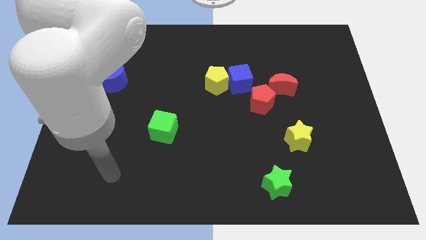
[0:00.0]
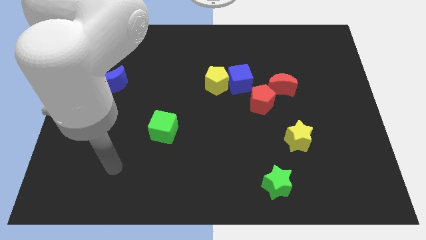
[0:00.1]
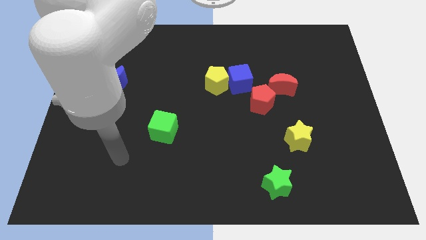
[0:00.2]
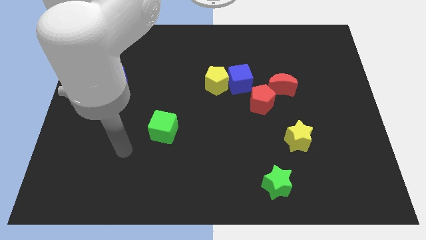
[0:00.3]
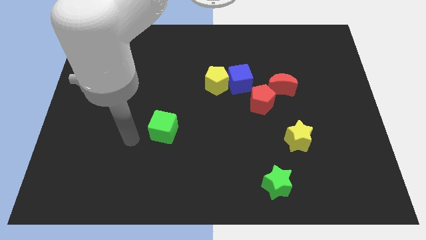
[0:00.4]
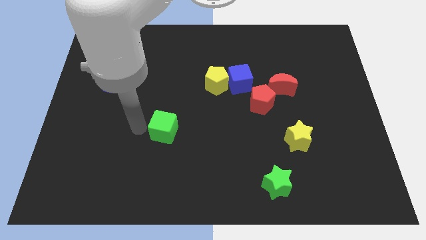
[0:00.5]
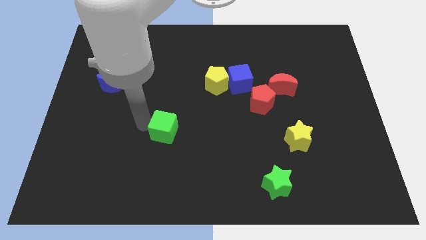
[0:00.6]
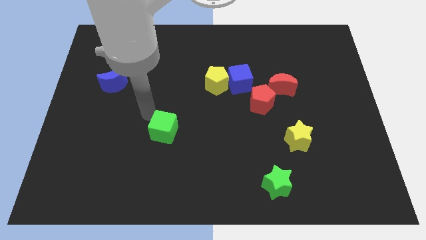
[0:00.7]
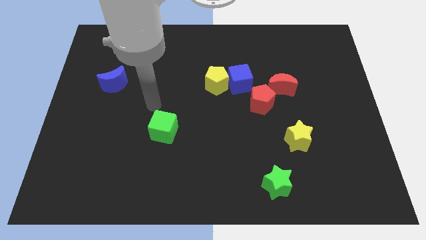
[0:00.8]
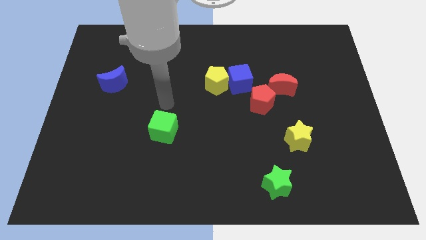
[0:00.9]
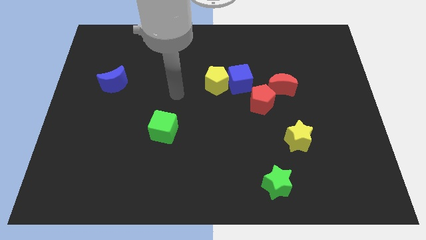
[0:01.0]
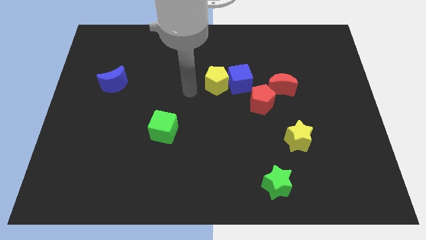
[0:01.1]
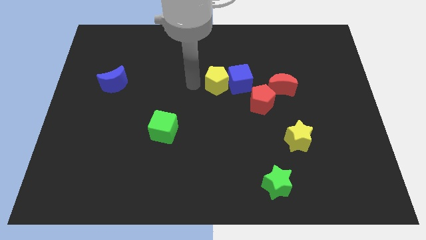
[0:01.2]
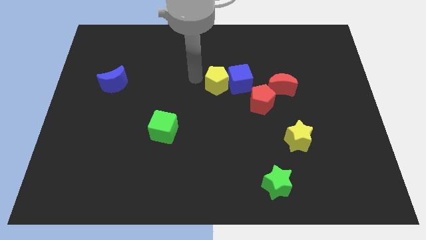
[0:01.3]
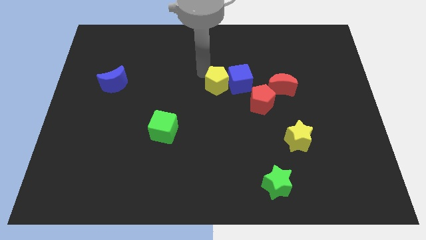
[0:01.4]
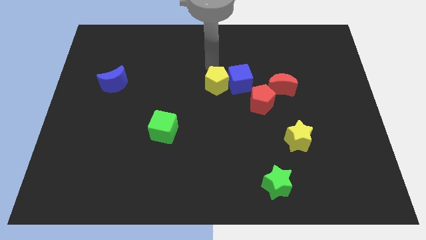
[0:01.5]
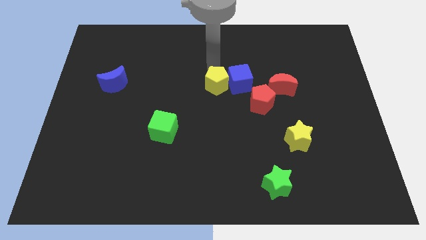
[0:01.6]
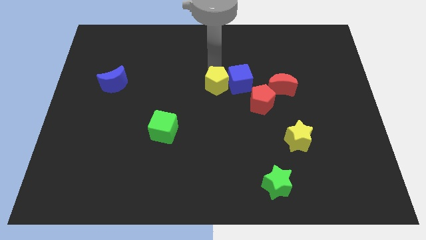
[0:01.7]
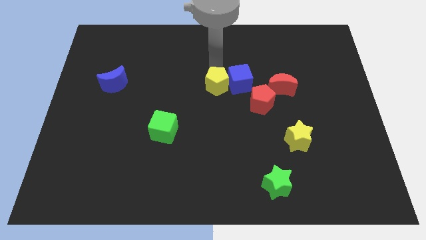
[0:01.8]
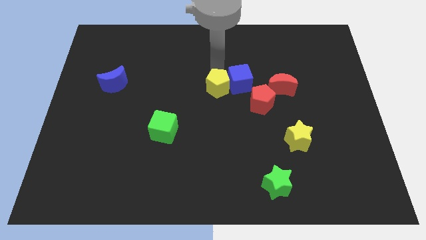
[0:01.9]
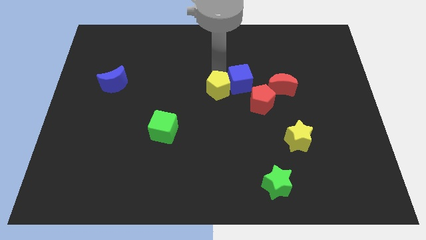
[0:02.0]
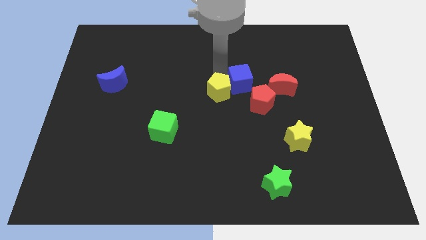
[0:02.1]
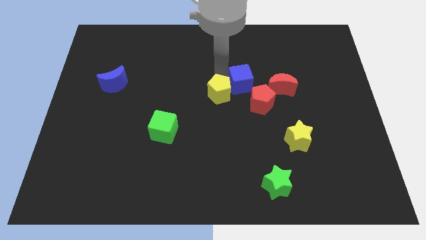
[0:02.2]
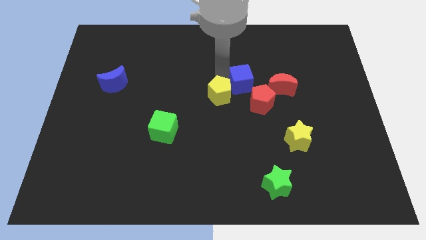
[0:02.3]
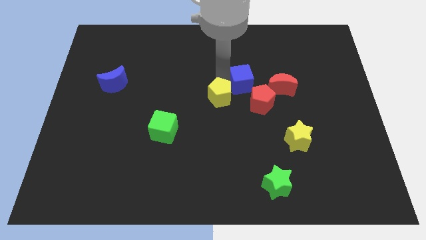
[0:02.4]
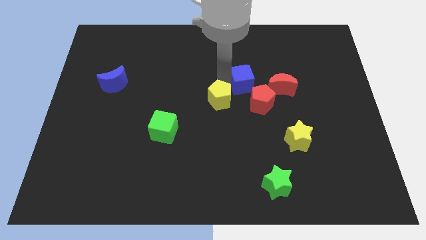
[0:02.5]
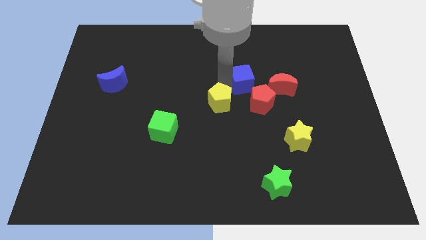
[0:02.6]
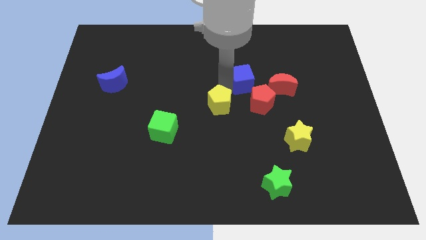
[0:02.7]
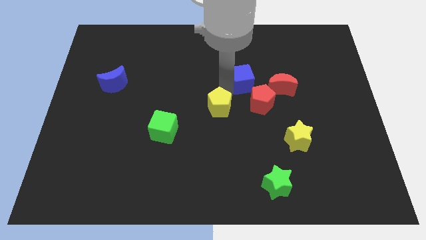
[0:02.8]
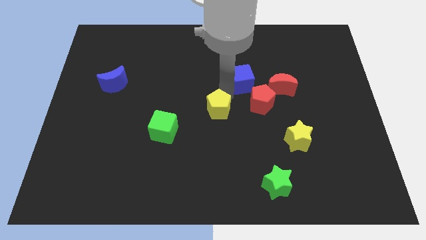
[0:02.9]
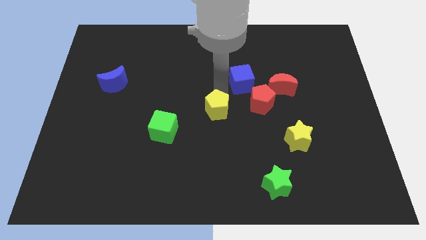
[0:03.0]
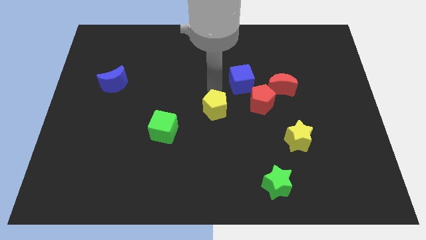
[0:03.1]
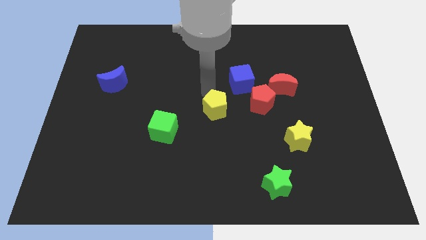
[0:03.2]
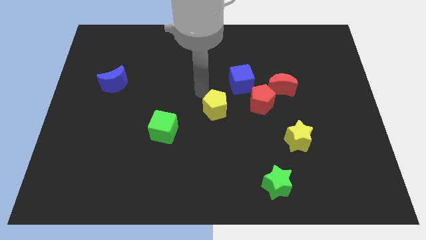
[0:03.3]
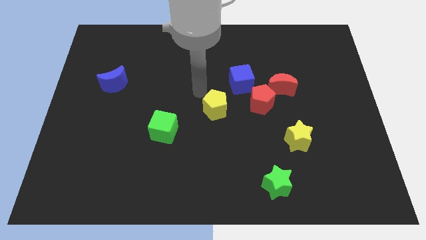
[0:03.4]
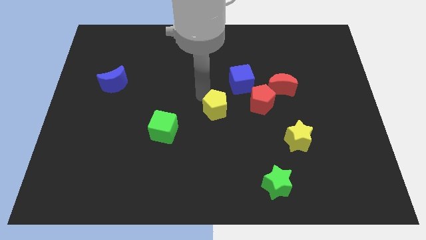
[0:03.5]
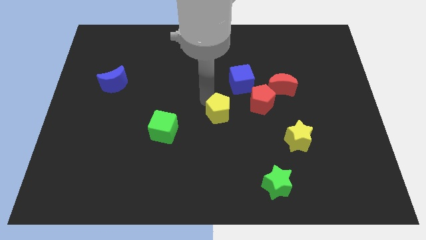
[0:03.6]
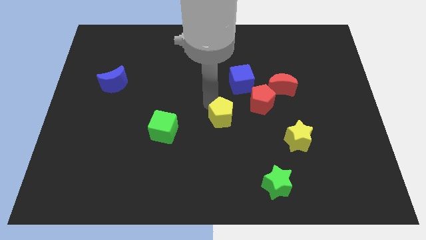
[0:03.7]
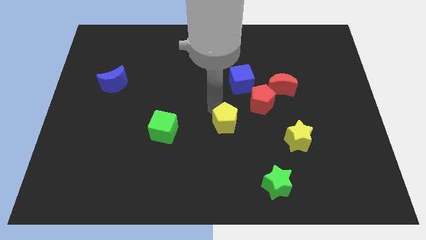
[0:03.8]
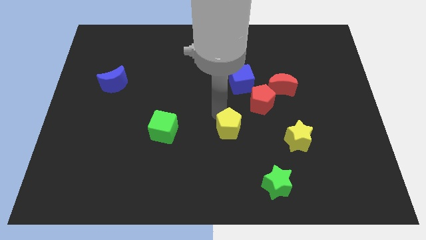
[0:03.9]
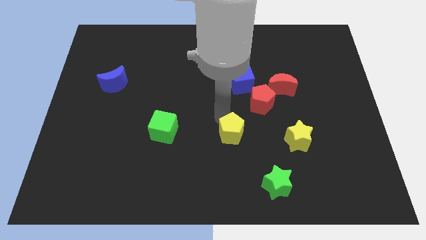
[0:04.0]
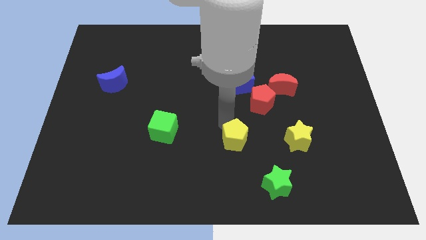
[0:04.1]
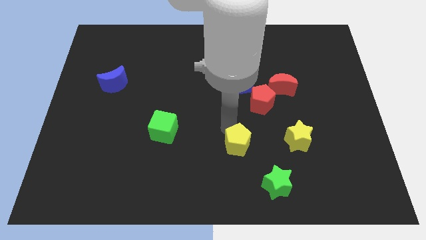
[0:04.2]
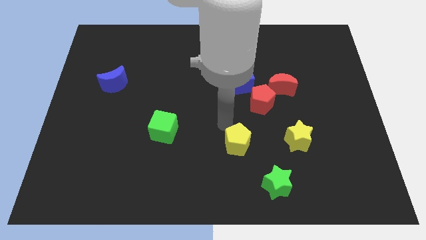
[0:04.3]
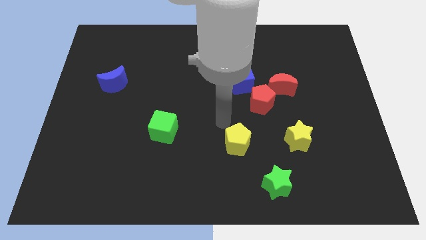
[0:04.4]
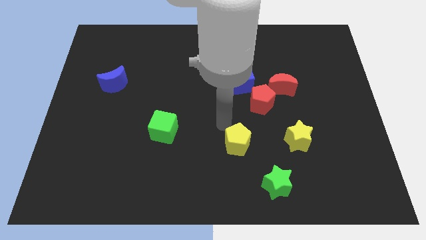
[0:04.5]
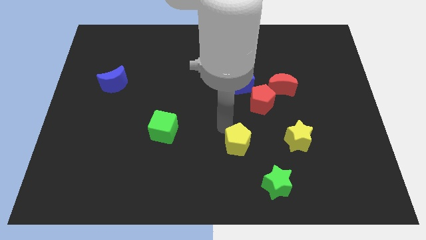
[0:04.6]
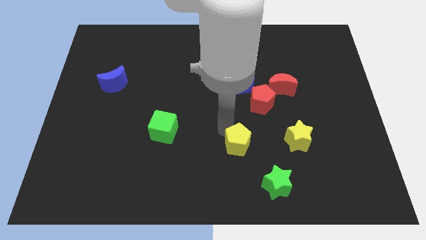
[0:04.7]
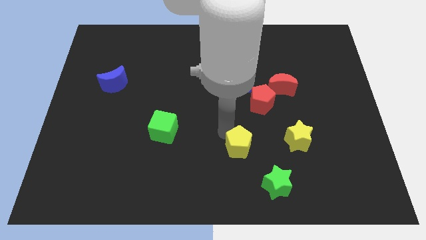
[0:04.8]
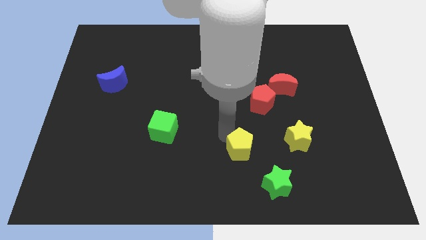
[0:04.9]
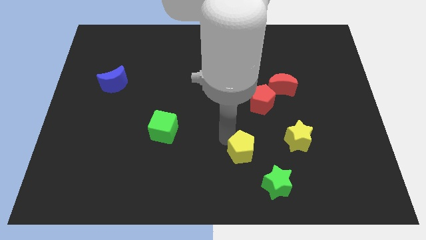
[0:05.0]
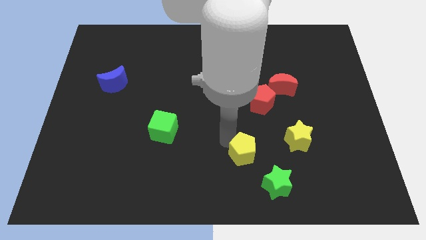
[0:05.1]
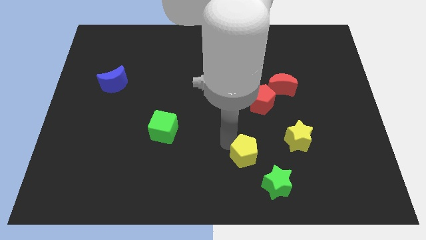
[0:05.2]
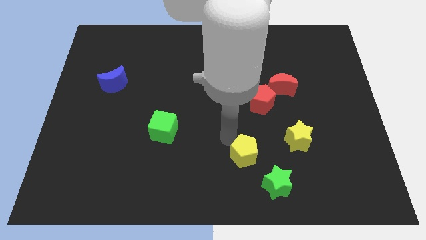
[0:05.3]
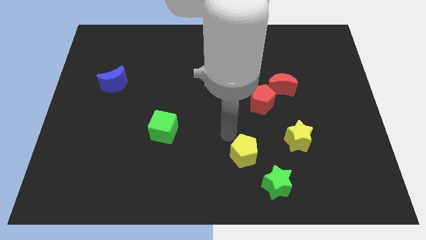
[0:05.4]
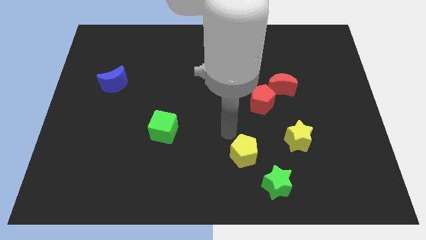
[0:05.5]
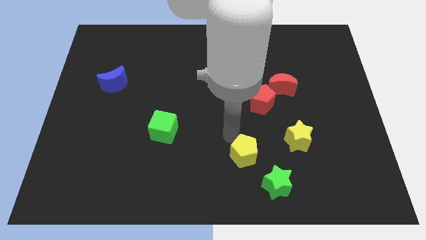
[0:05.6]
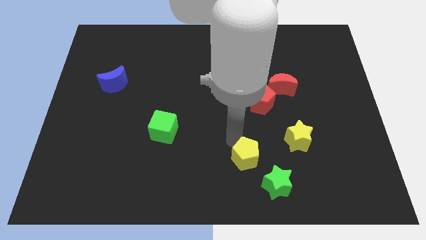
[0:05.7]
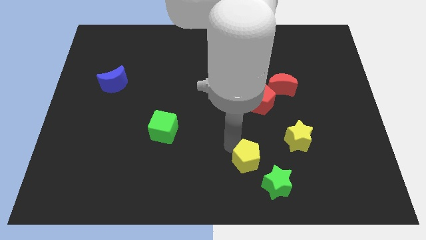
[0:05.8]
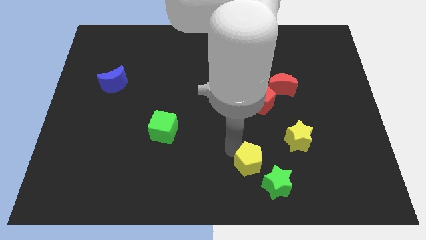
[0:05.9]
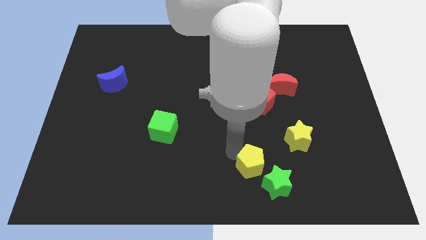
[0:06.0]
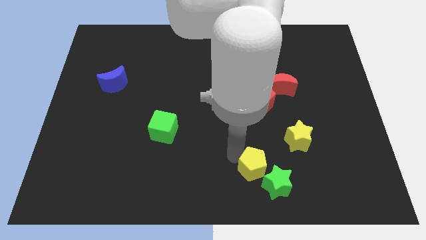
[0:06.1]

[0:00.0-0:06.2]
slide the yellow pentagon to the green star

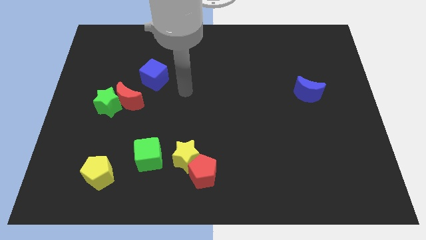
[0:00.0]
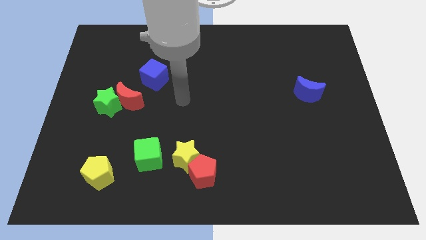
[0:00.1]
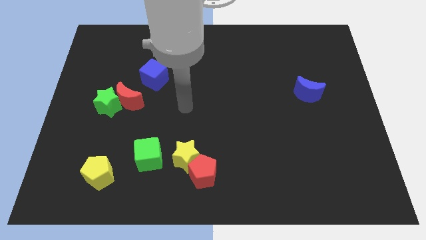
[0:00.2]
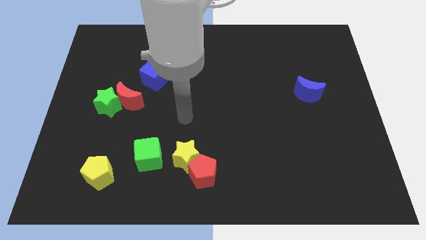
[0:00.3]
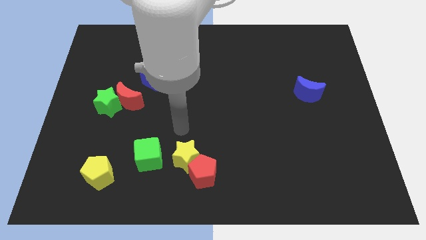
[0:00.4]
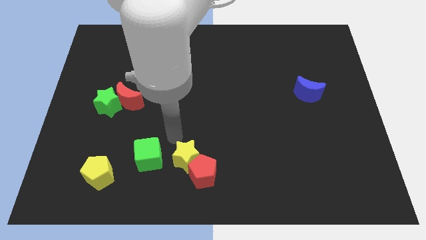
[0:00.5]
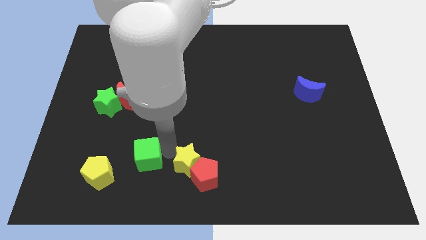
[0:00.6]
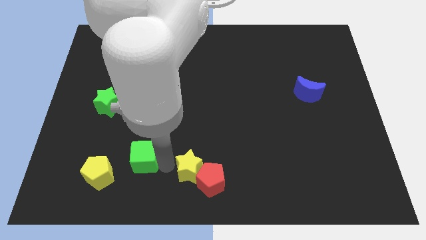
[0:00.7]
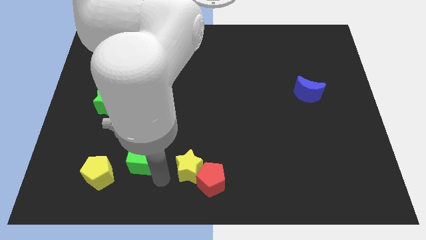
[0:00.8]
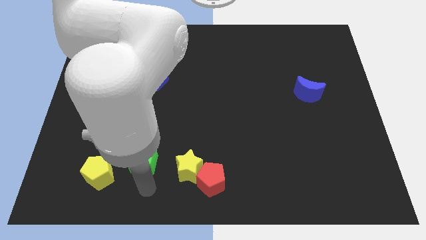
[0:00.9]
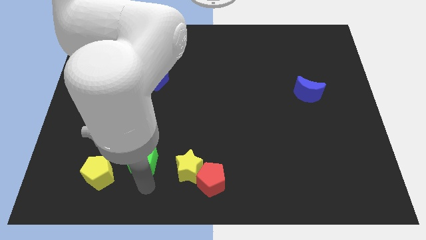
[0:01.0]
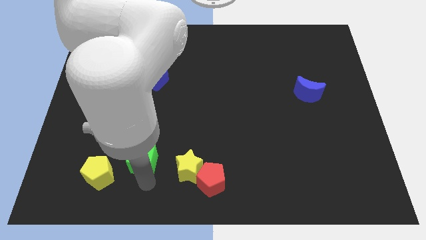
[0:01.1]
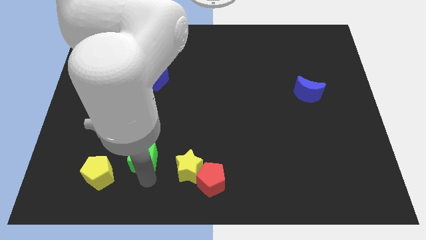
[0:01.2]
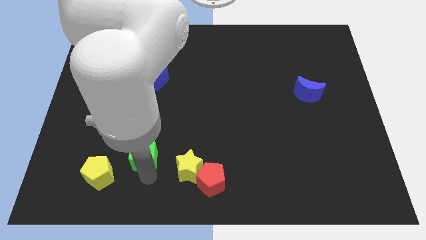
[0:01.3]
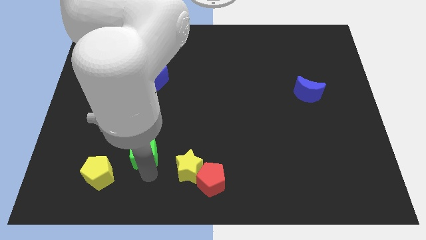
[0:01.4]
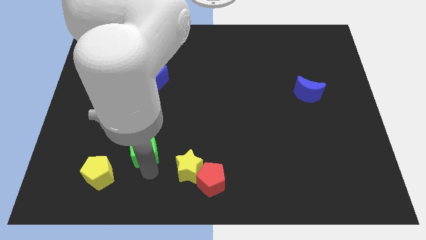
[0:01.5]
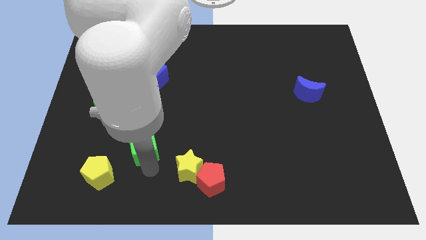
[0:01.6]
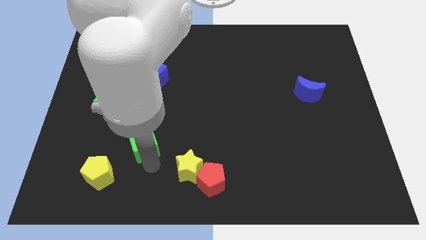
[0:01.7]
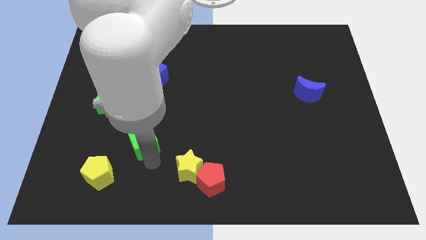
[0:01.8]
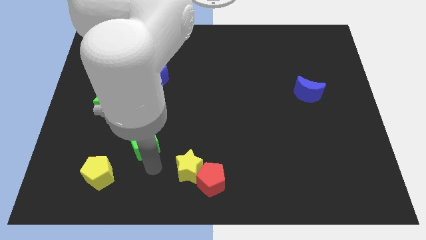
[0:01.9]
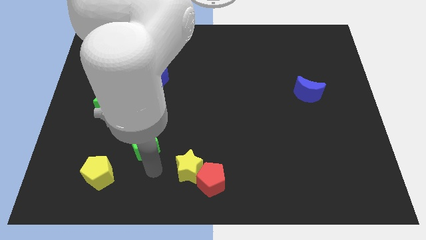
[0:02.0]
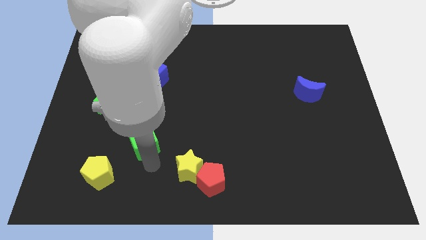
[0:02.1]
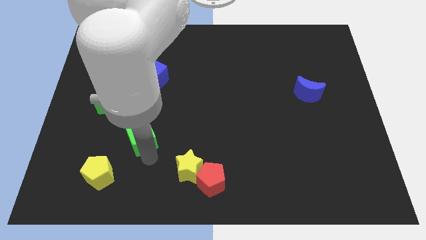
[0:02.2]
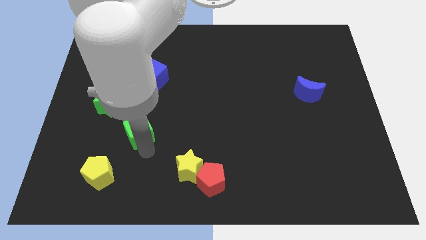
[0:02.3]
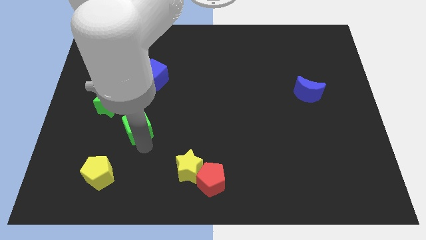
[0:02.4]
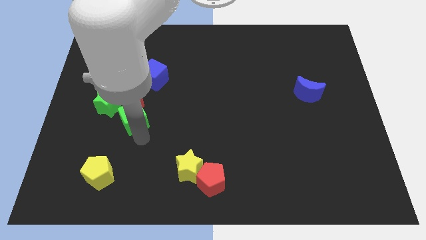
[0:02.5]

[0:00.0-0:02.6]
slide the green cube next to the red moon
